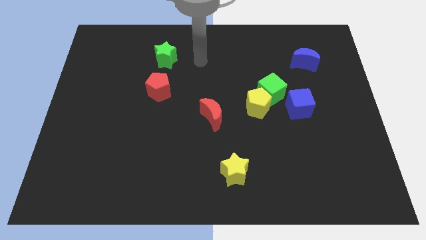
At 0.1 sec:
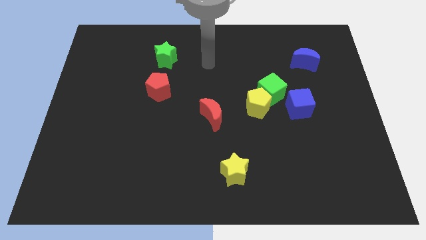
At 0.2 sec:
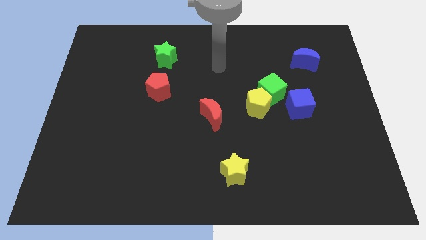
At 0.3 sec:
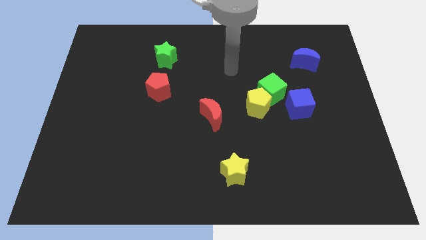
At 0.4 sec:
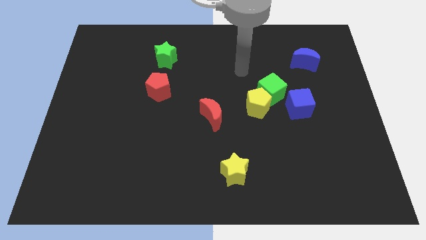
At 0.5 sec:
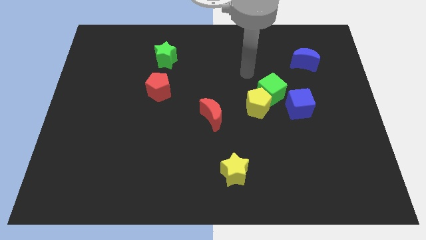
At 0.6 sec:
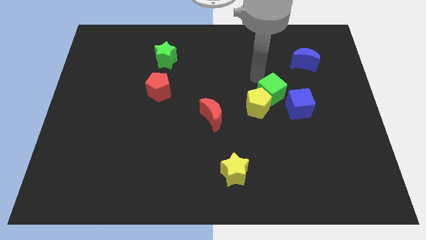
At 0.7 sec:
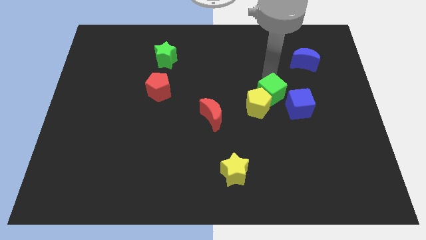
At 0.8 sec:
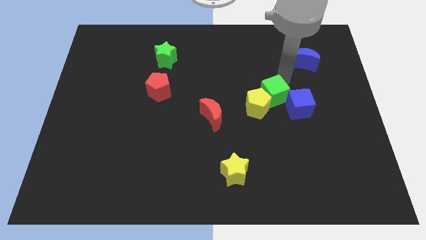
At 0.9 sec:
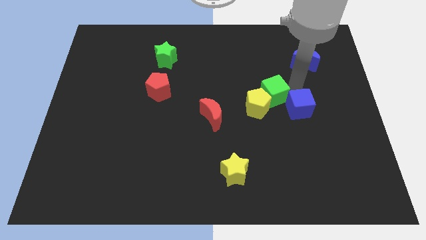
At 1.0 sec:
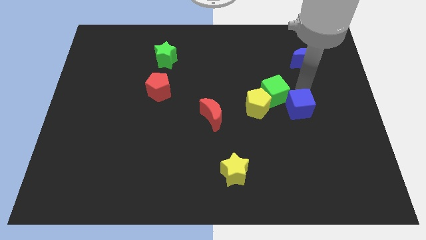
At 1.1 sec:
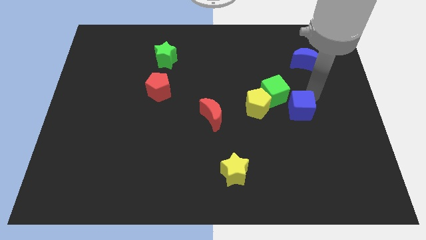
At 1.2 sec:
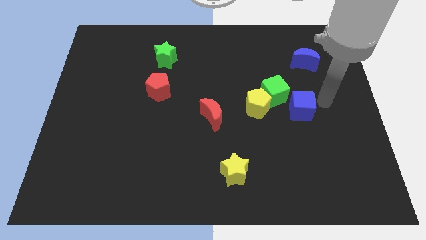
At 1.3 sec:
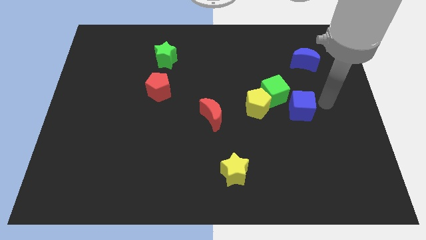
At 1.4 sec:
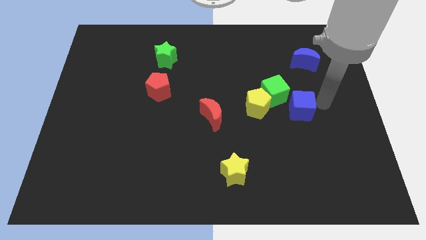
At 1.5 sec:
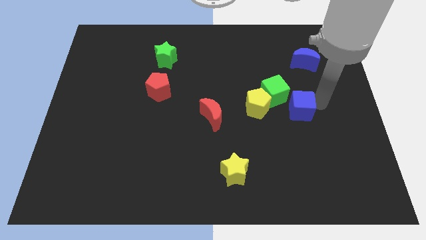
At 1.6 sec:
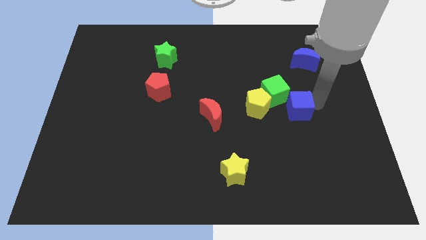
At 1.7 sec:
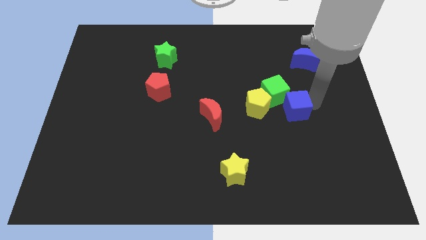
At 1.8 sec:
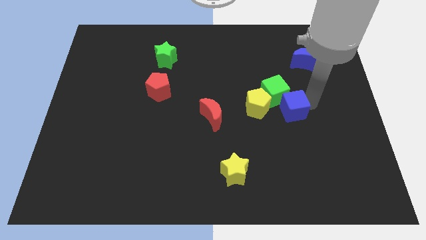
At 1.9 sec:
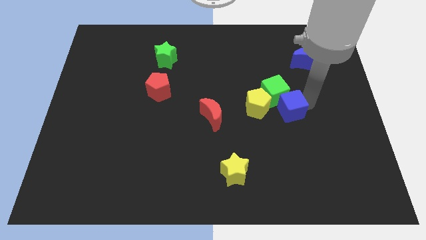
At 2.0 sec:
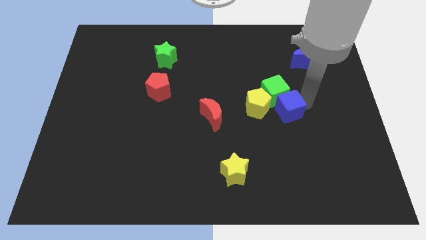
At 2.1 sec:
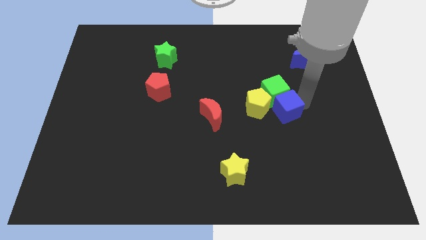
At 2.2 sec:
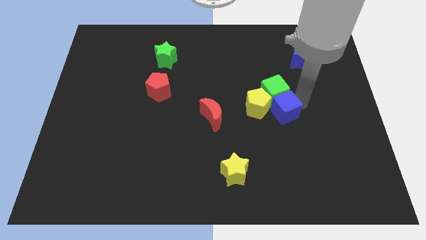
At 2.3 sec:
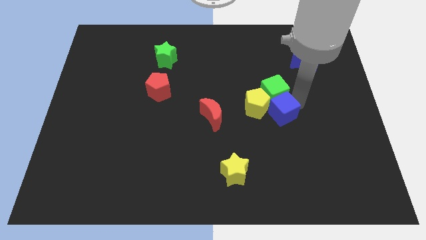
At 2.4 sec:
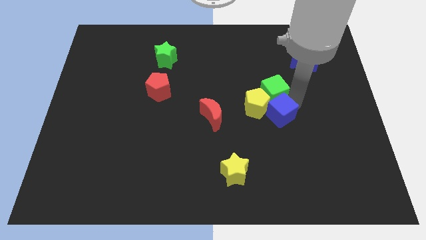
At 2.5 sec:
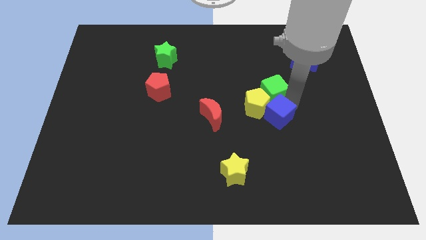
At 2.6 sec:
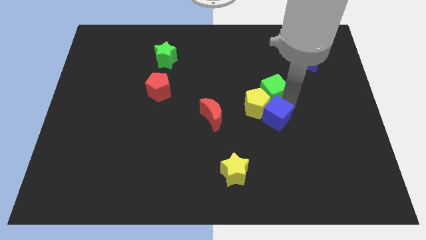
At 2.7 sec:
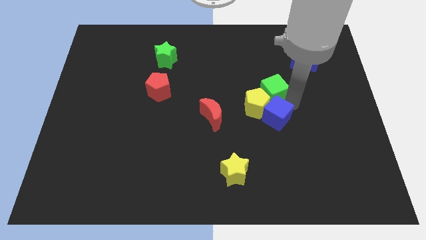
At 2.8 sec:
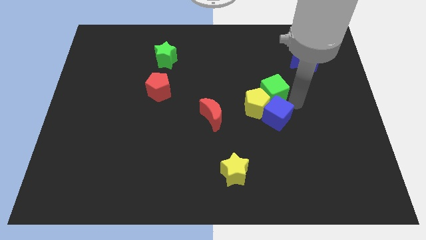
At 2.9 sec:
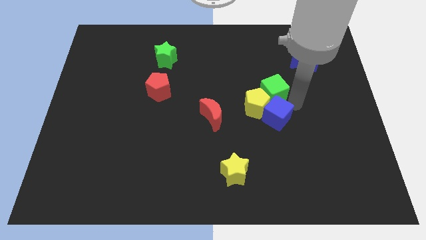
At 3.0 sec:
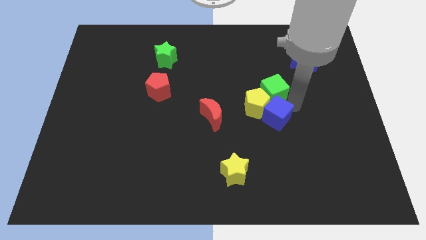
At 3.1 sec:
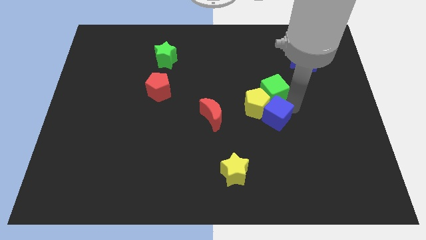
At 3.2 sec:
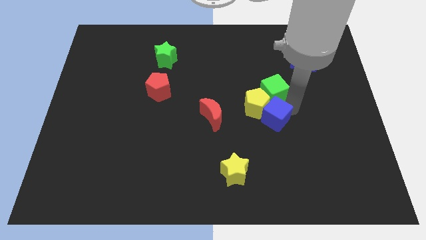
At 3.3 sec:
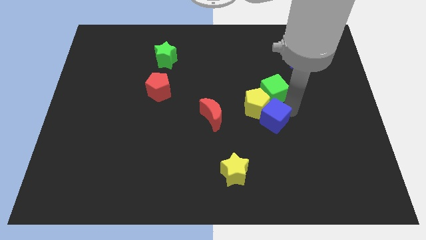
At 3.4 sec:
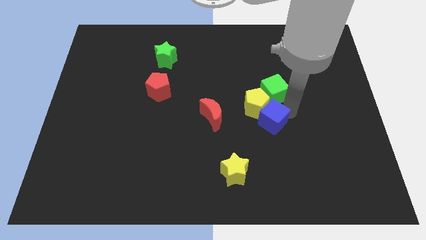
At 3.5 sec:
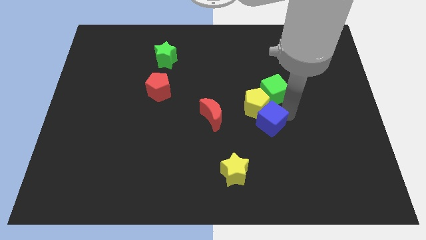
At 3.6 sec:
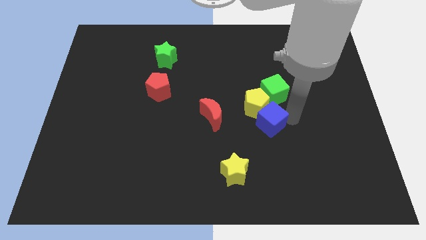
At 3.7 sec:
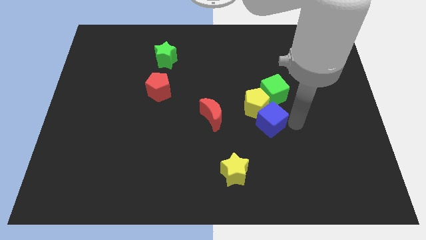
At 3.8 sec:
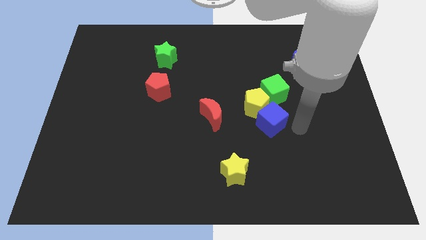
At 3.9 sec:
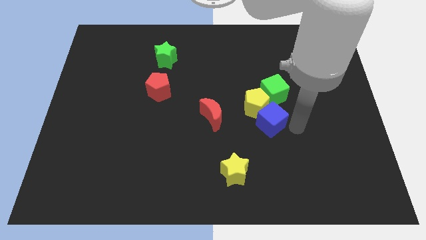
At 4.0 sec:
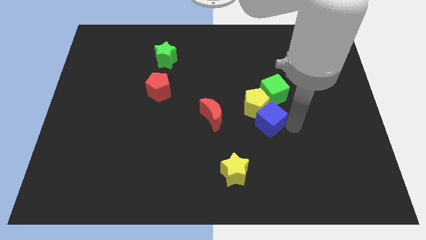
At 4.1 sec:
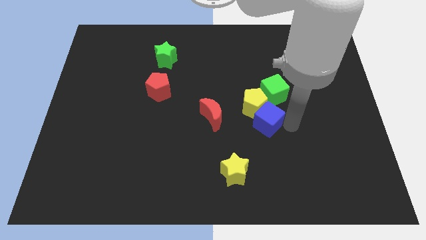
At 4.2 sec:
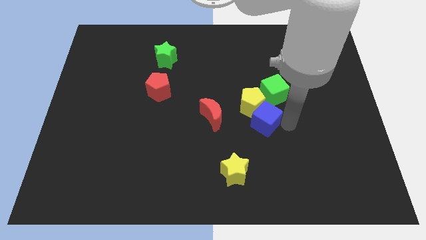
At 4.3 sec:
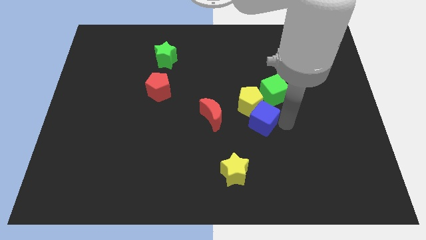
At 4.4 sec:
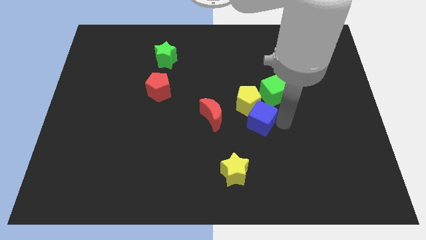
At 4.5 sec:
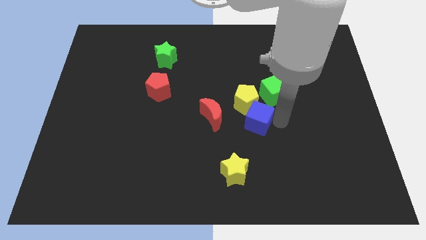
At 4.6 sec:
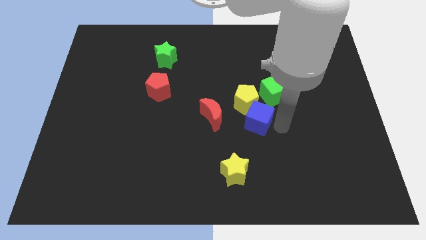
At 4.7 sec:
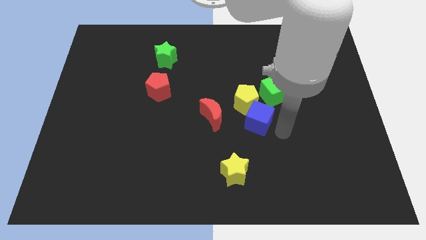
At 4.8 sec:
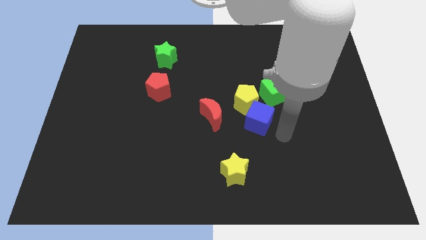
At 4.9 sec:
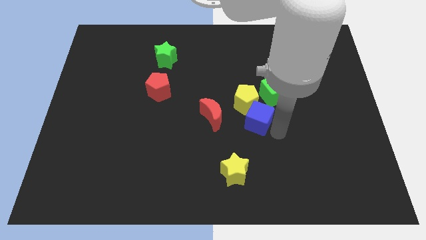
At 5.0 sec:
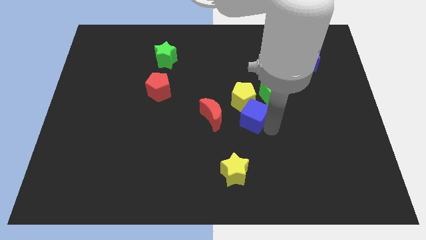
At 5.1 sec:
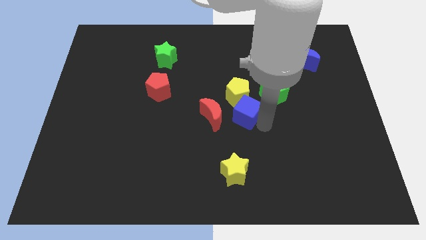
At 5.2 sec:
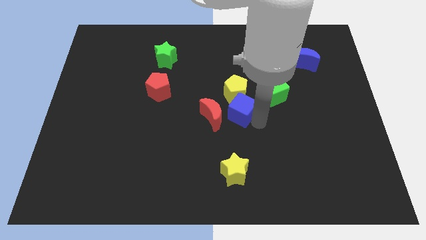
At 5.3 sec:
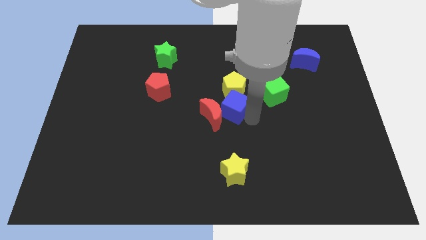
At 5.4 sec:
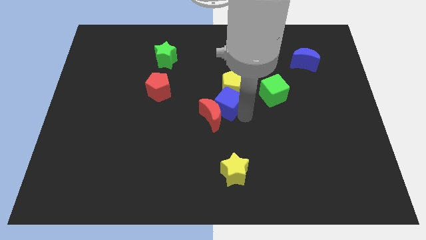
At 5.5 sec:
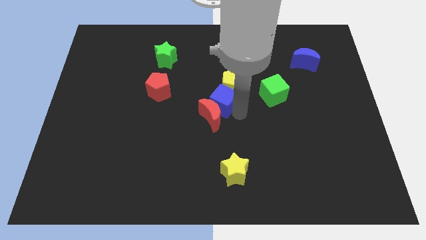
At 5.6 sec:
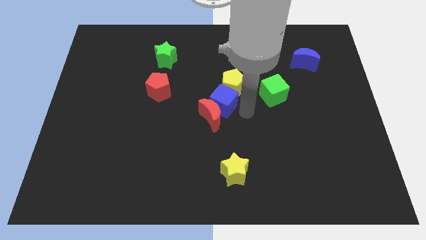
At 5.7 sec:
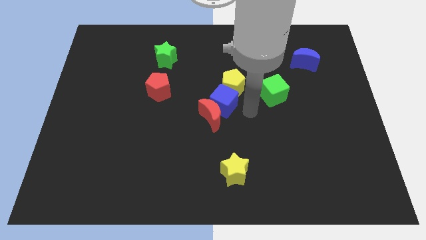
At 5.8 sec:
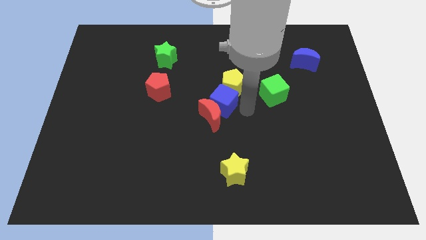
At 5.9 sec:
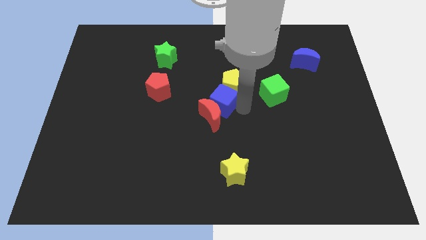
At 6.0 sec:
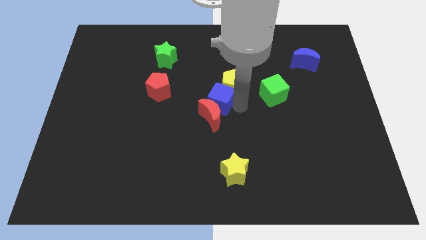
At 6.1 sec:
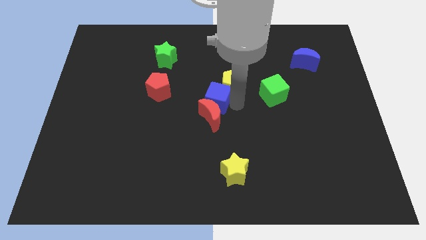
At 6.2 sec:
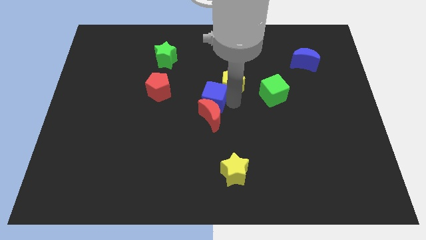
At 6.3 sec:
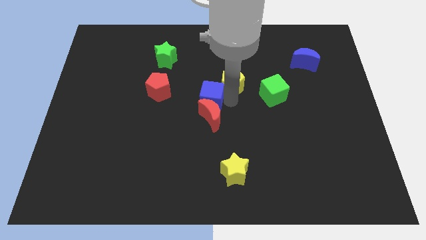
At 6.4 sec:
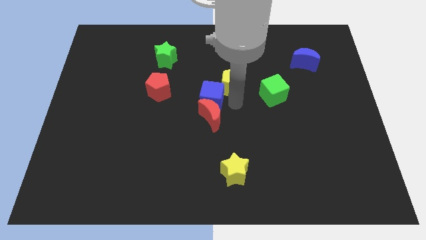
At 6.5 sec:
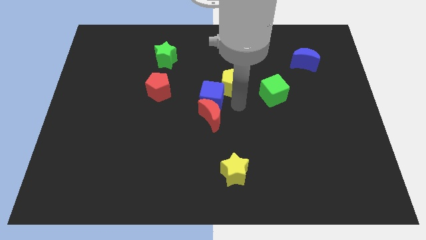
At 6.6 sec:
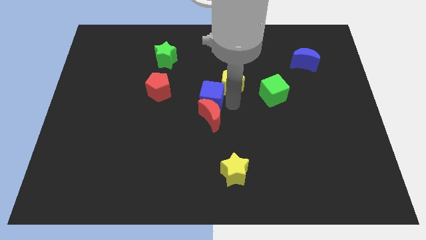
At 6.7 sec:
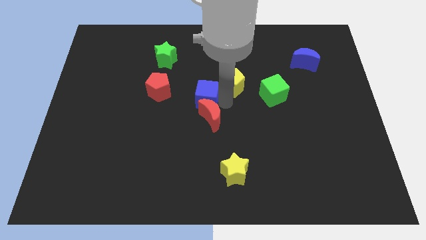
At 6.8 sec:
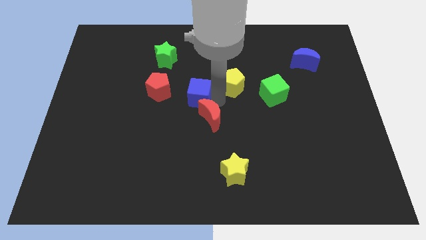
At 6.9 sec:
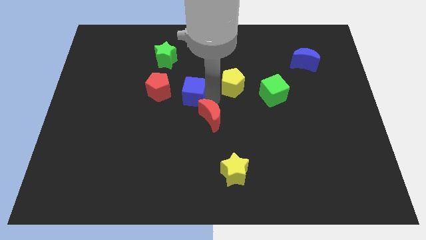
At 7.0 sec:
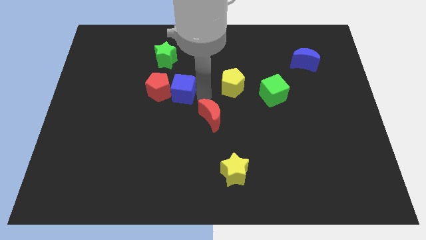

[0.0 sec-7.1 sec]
slide the blue cube next to the red pentagon
